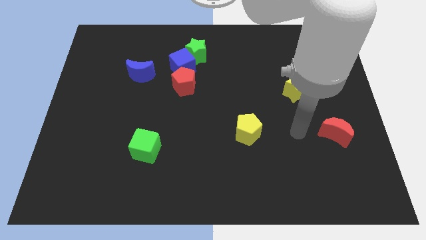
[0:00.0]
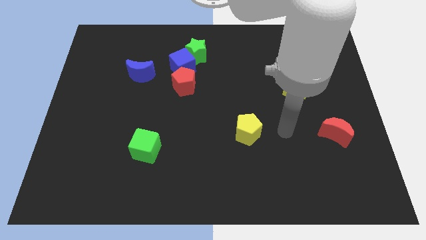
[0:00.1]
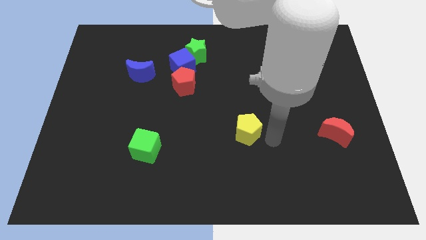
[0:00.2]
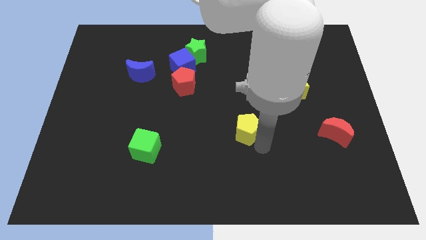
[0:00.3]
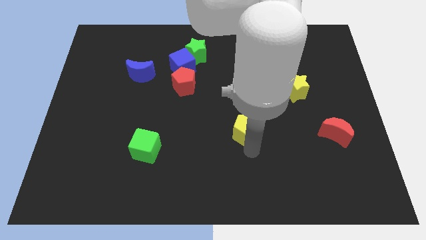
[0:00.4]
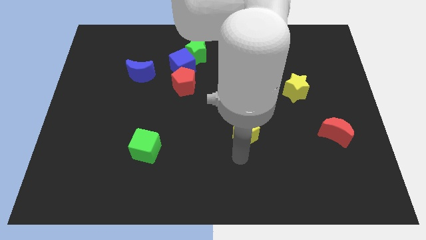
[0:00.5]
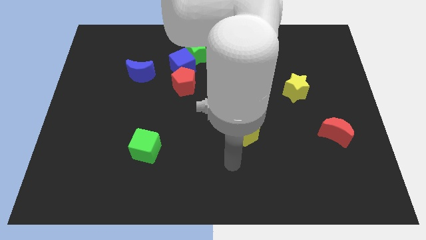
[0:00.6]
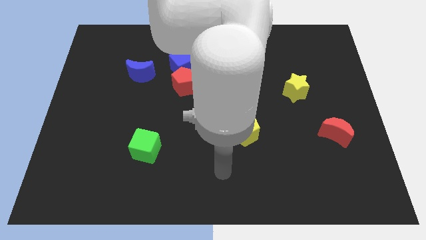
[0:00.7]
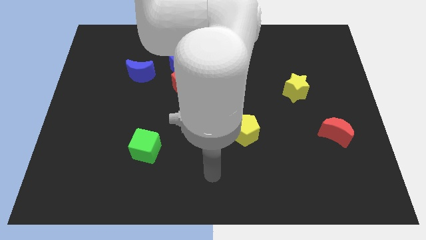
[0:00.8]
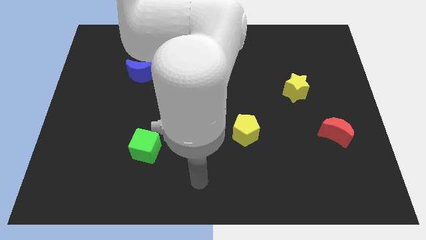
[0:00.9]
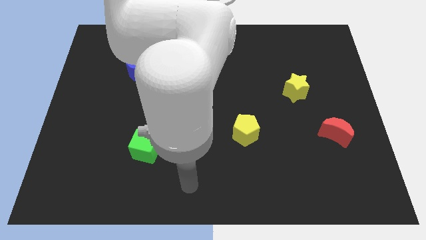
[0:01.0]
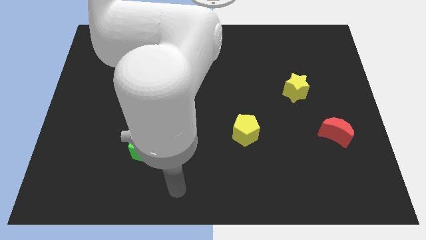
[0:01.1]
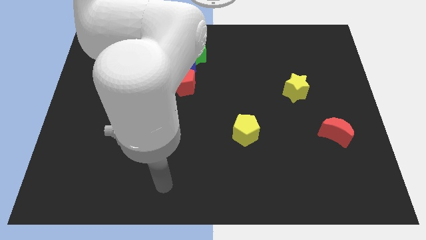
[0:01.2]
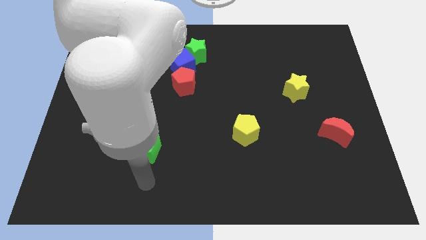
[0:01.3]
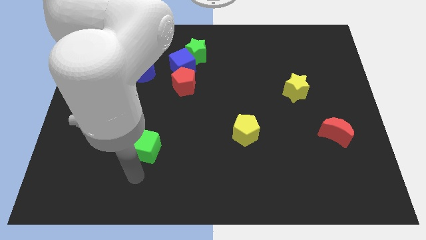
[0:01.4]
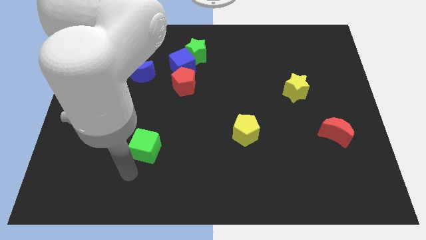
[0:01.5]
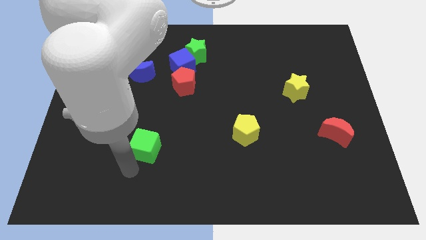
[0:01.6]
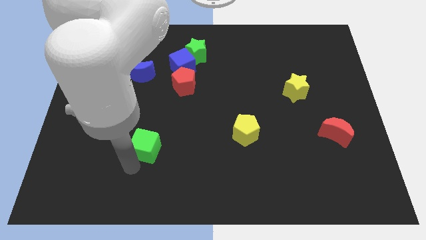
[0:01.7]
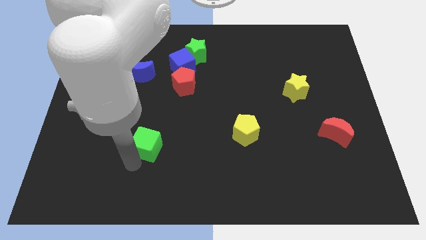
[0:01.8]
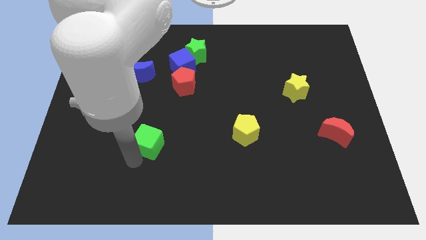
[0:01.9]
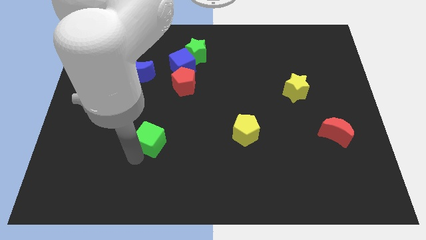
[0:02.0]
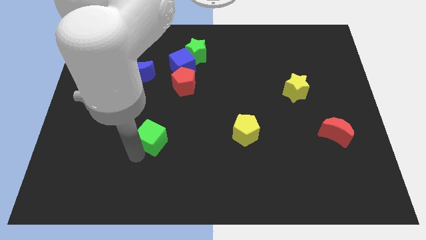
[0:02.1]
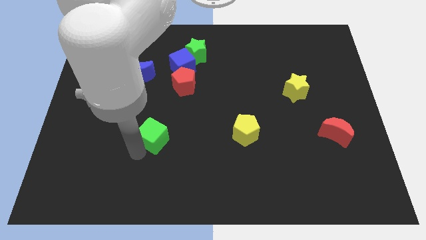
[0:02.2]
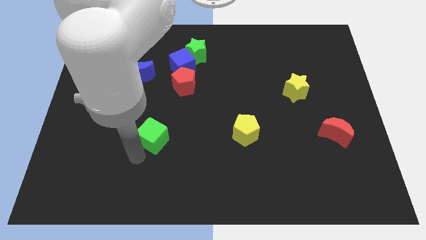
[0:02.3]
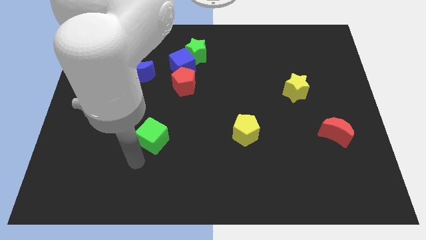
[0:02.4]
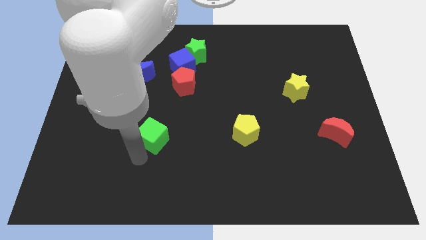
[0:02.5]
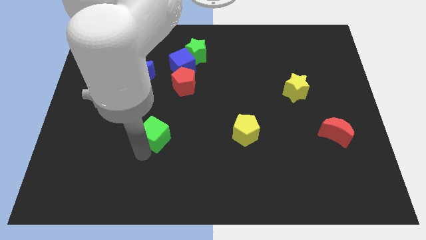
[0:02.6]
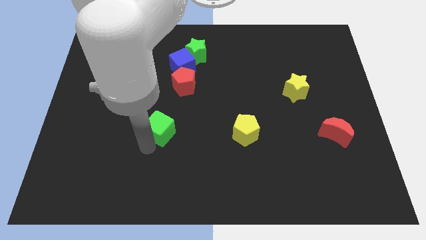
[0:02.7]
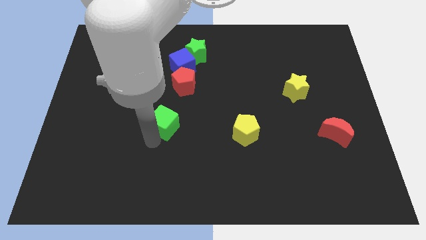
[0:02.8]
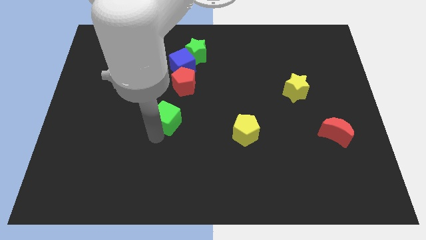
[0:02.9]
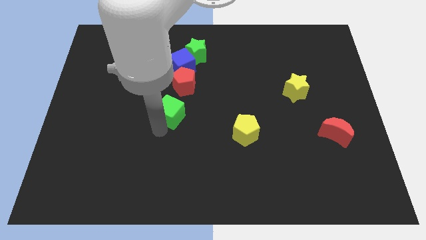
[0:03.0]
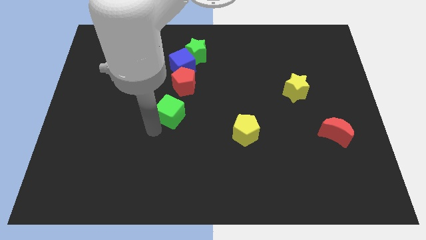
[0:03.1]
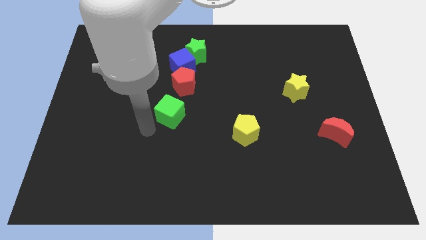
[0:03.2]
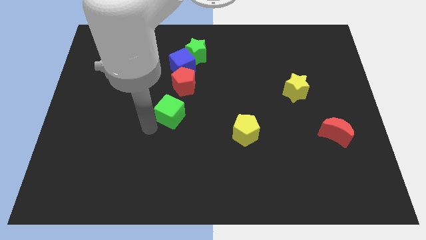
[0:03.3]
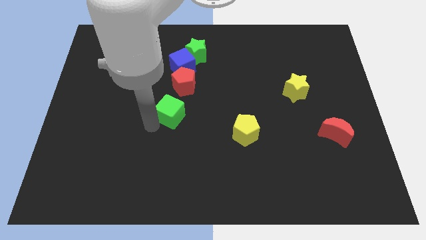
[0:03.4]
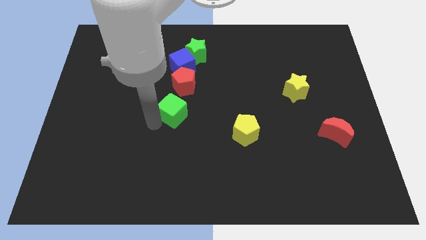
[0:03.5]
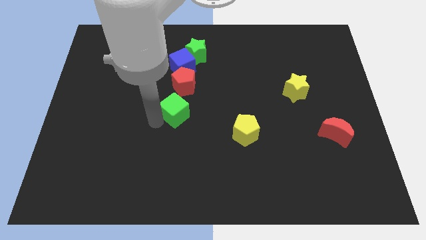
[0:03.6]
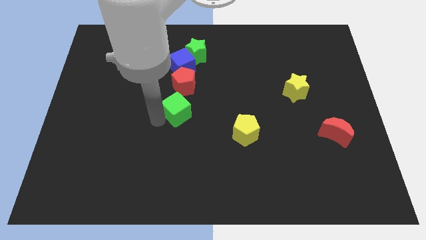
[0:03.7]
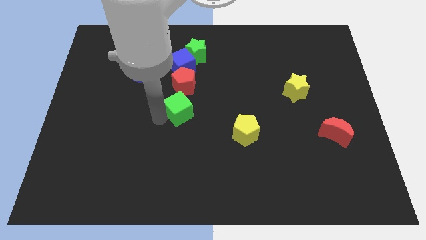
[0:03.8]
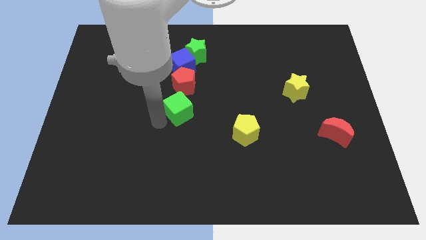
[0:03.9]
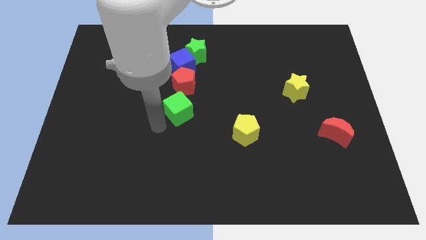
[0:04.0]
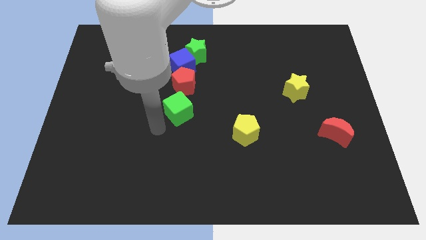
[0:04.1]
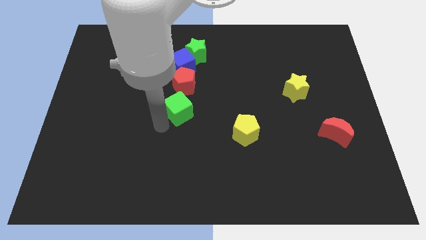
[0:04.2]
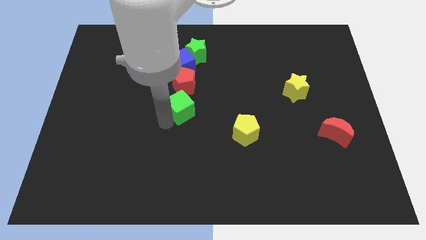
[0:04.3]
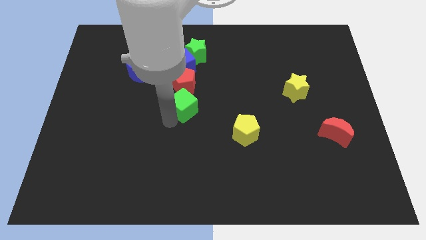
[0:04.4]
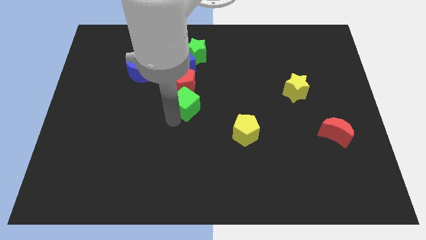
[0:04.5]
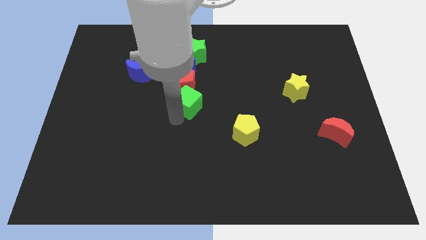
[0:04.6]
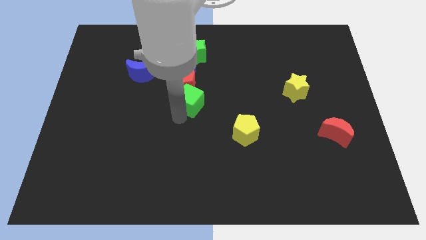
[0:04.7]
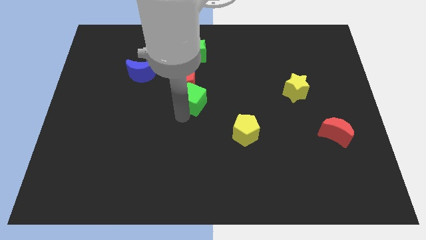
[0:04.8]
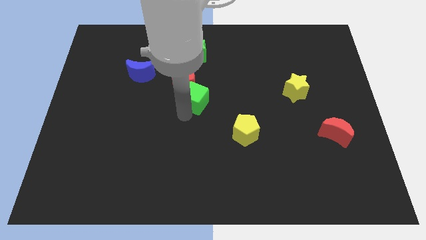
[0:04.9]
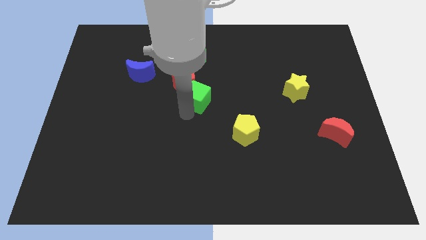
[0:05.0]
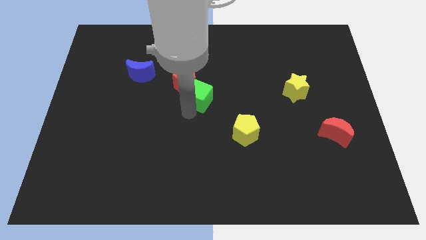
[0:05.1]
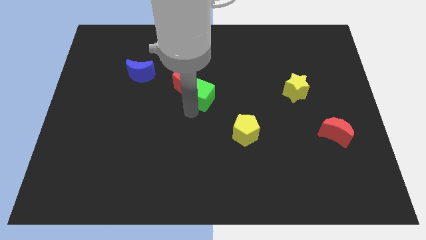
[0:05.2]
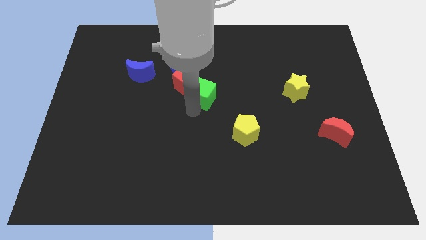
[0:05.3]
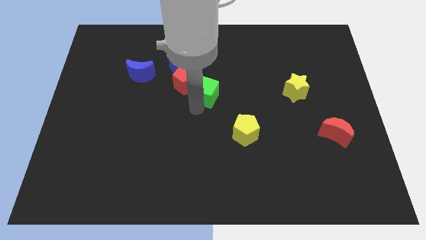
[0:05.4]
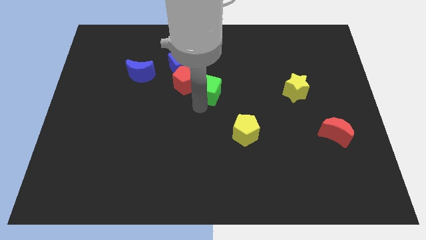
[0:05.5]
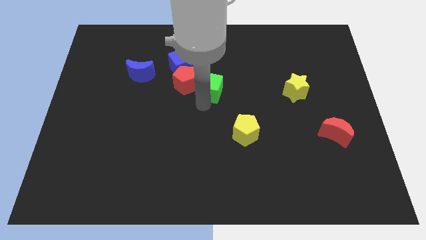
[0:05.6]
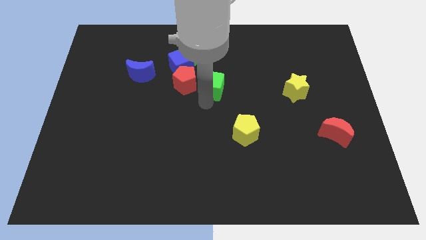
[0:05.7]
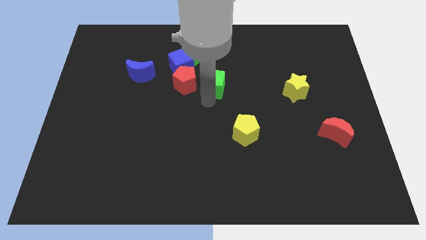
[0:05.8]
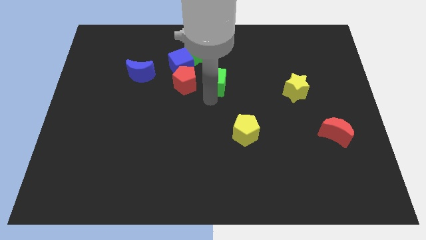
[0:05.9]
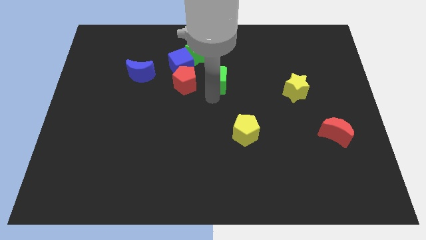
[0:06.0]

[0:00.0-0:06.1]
move the green cube to the top right of the red pentagon

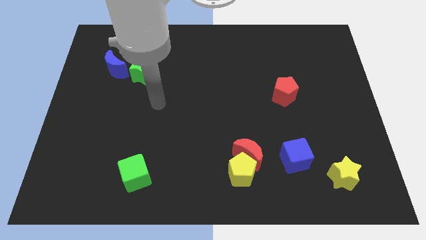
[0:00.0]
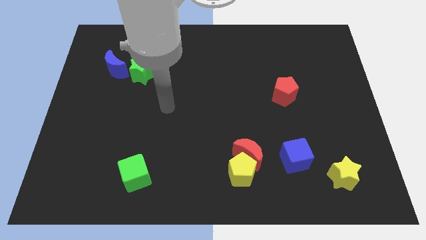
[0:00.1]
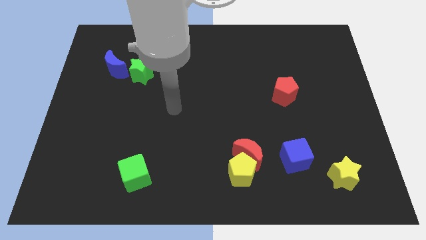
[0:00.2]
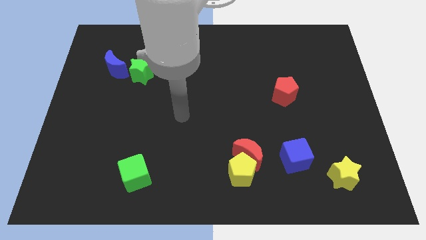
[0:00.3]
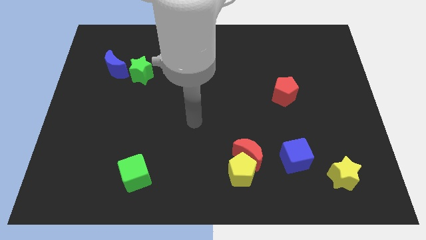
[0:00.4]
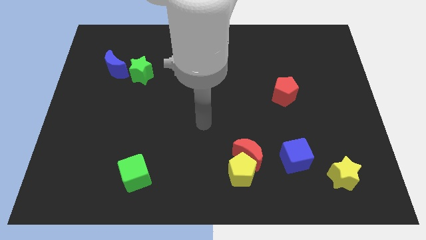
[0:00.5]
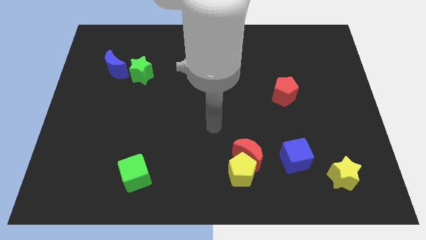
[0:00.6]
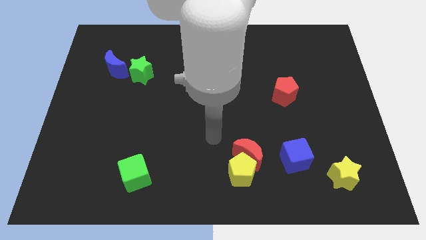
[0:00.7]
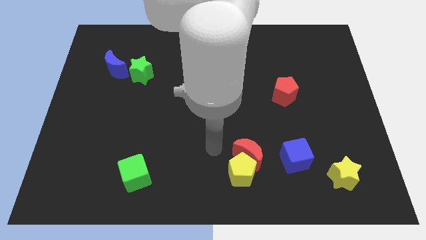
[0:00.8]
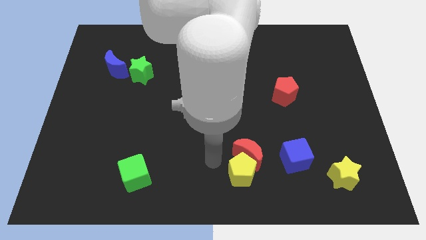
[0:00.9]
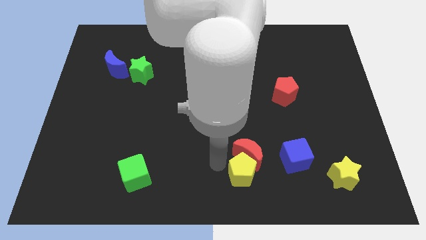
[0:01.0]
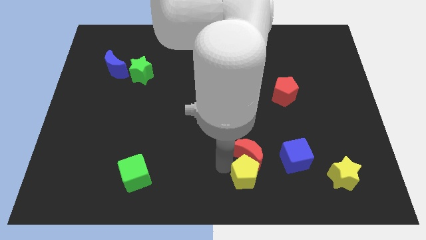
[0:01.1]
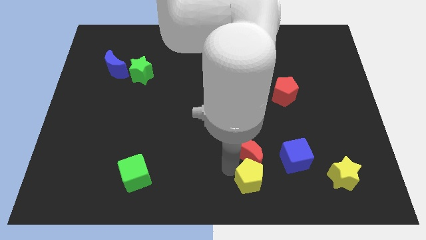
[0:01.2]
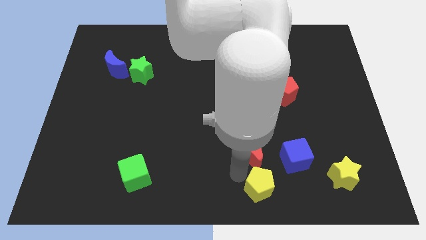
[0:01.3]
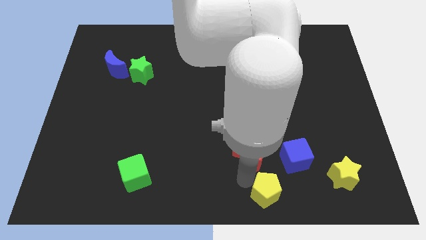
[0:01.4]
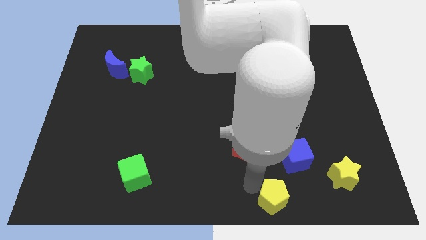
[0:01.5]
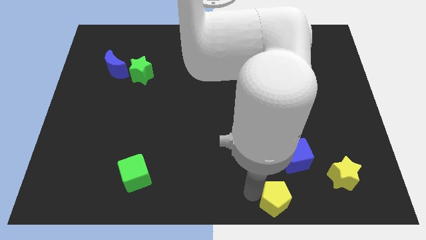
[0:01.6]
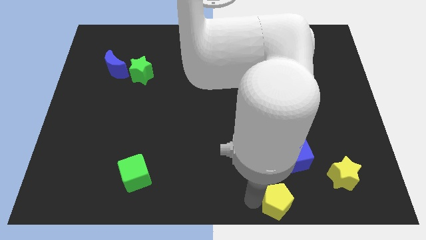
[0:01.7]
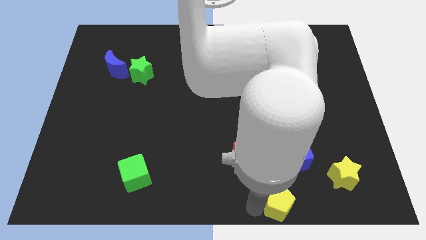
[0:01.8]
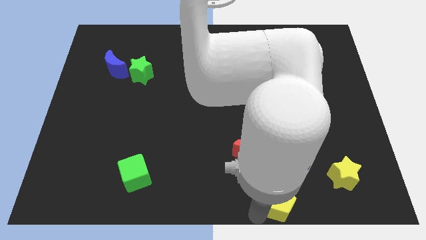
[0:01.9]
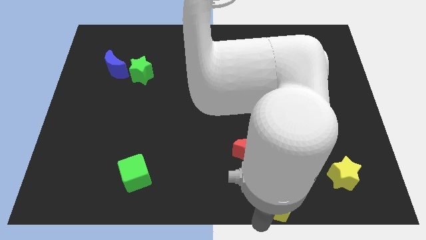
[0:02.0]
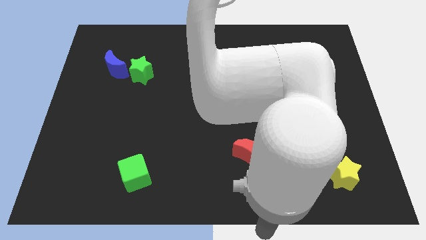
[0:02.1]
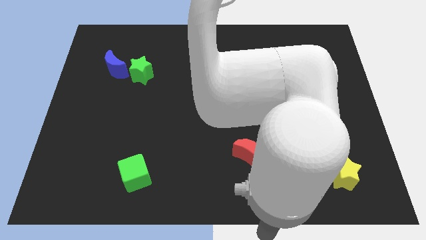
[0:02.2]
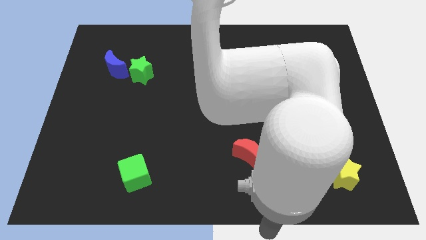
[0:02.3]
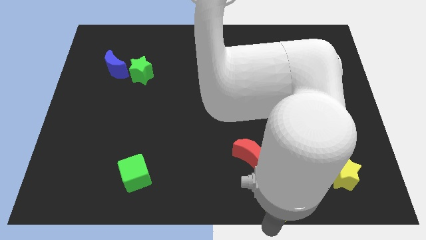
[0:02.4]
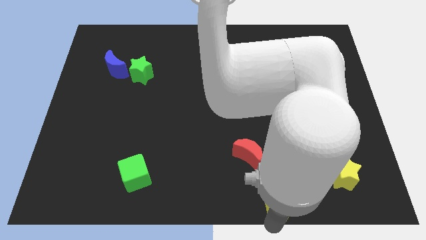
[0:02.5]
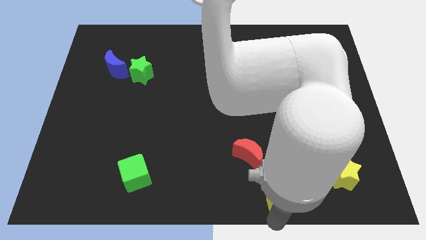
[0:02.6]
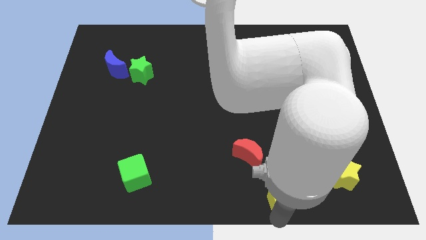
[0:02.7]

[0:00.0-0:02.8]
slide the yellow pentagon to the left side of the yellow star
